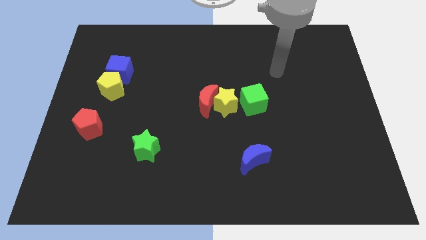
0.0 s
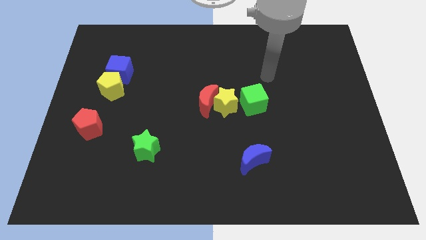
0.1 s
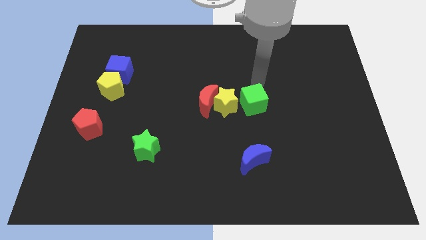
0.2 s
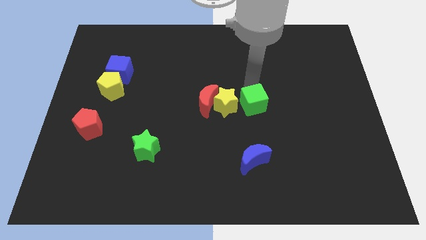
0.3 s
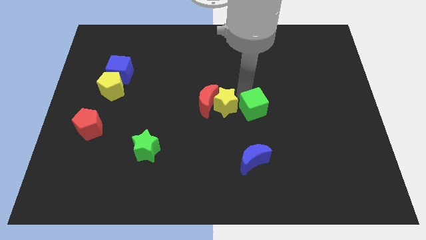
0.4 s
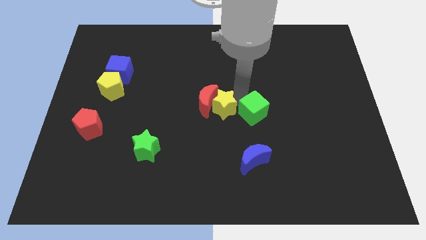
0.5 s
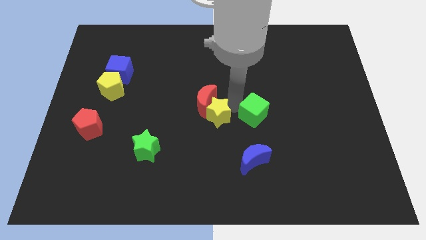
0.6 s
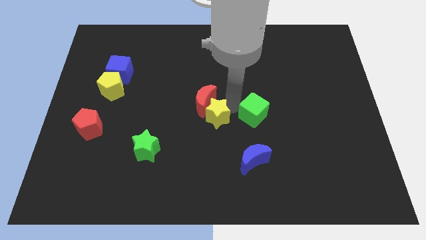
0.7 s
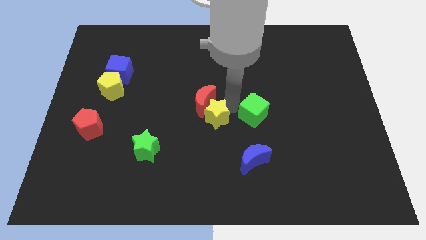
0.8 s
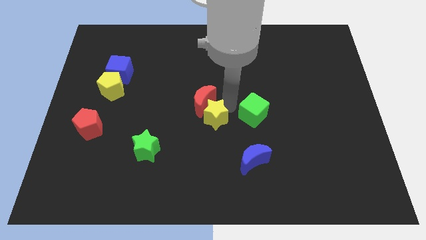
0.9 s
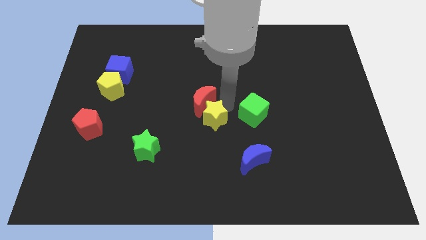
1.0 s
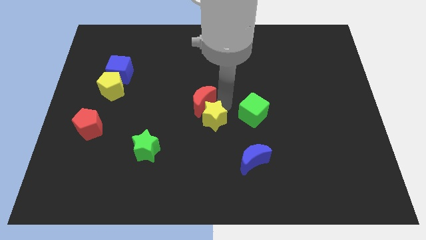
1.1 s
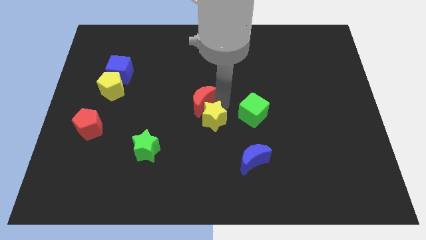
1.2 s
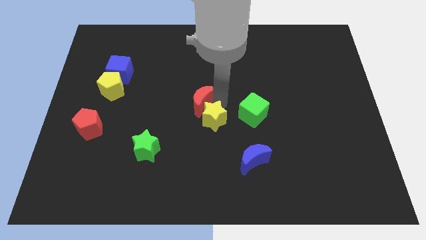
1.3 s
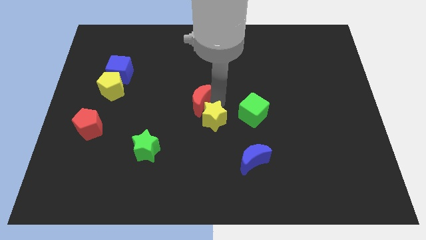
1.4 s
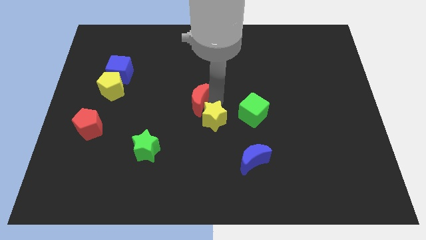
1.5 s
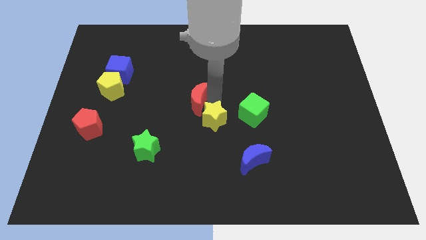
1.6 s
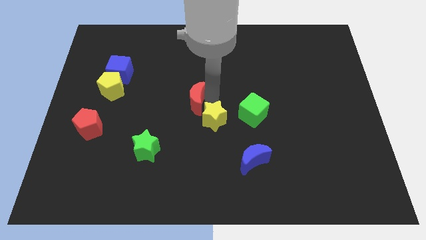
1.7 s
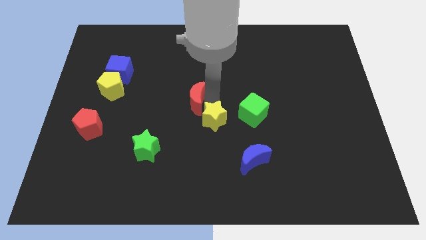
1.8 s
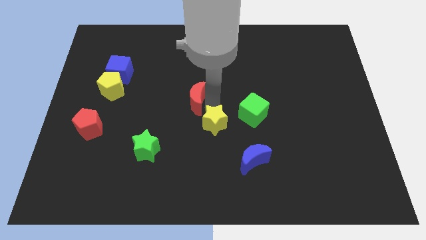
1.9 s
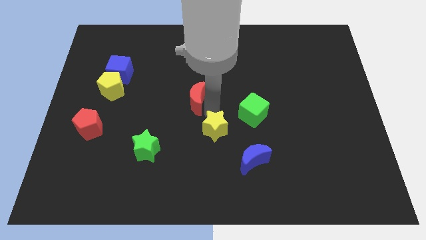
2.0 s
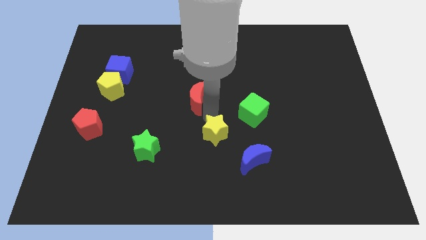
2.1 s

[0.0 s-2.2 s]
move the red moon away from the yellow star

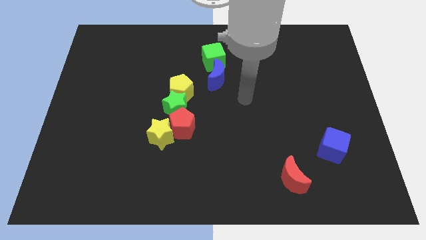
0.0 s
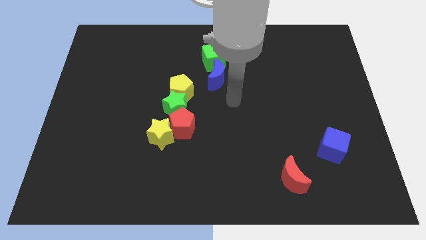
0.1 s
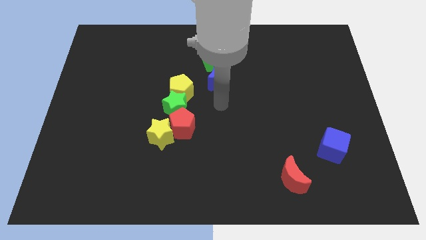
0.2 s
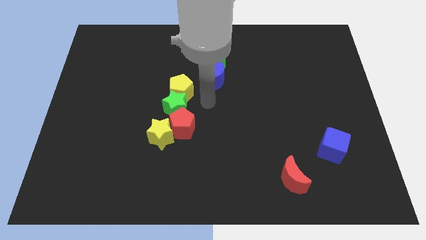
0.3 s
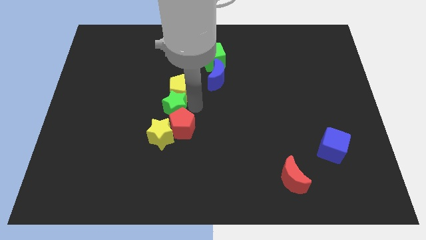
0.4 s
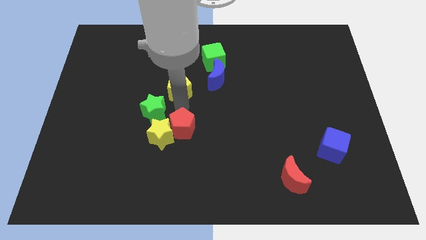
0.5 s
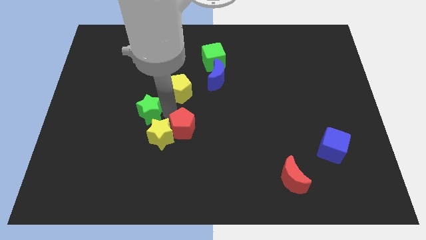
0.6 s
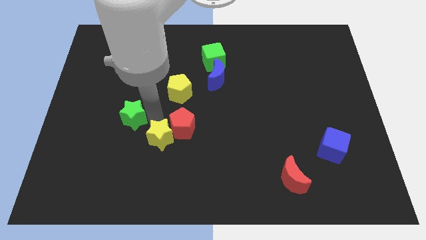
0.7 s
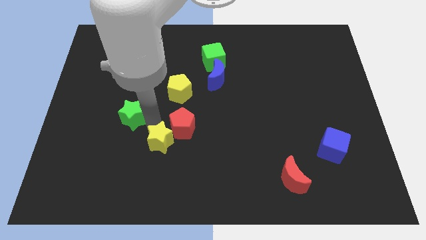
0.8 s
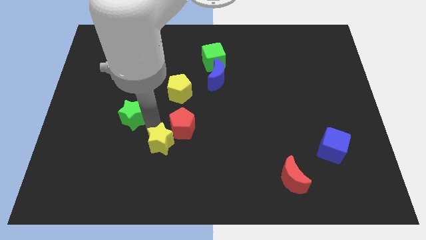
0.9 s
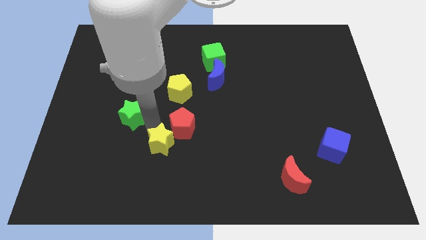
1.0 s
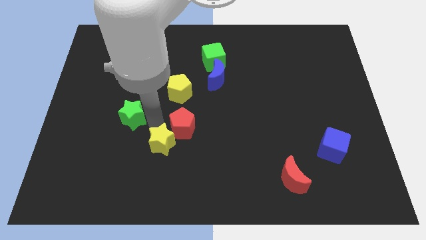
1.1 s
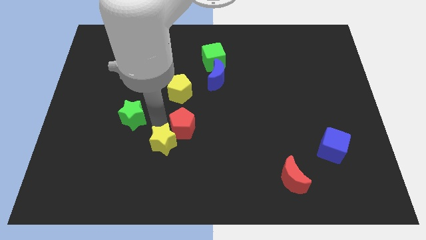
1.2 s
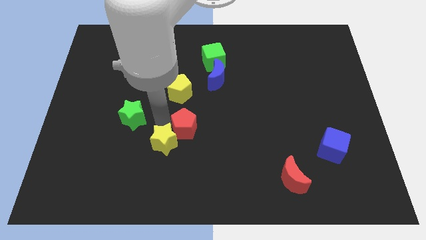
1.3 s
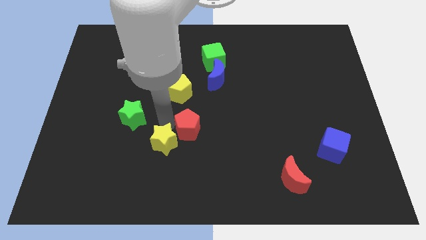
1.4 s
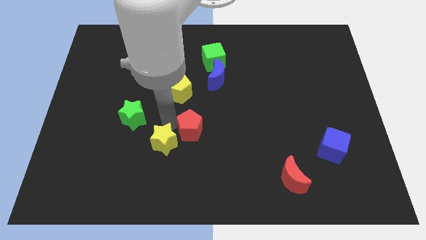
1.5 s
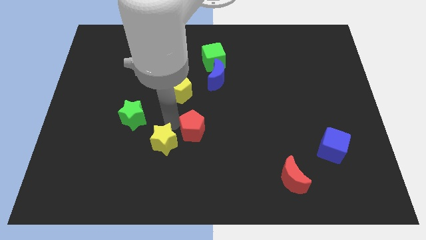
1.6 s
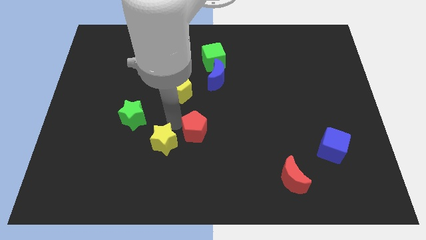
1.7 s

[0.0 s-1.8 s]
pull the red pentagon apart from the yellow star and green star

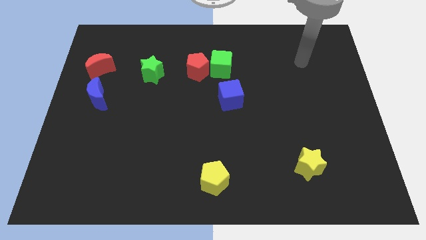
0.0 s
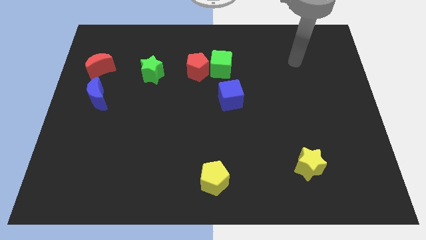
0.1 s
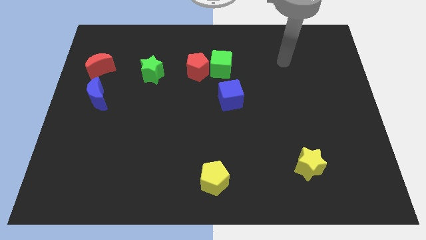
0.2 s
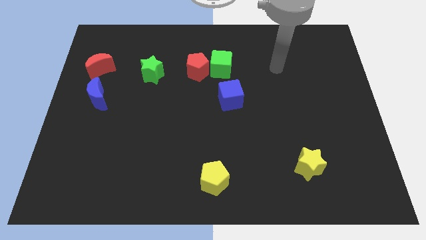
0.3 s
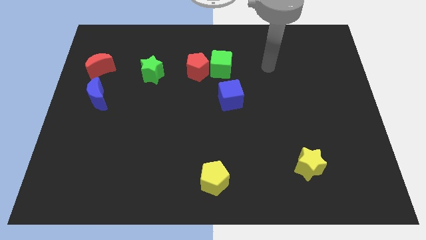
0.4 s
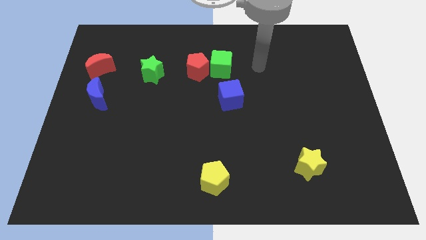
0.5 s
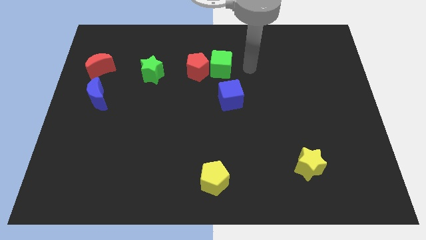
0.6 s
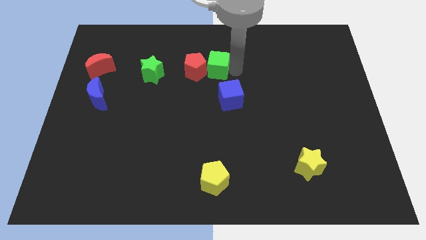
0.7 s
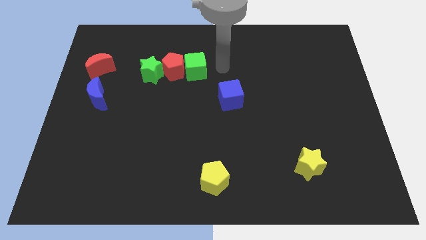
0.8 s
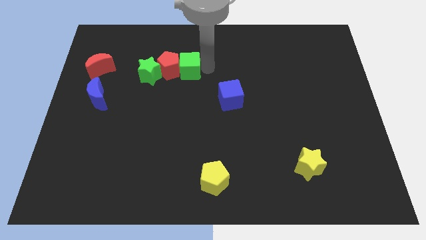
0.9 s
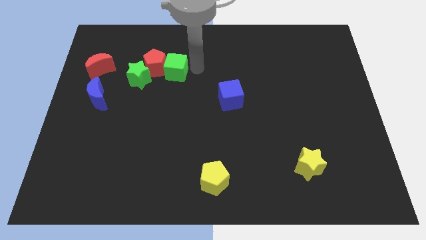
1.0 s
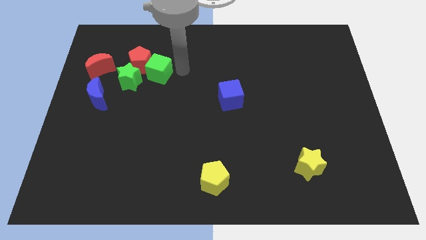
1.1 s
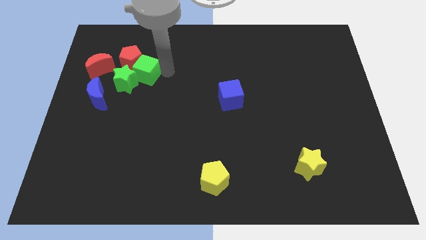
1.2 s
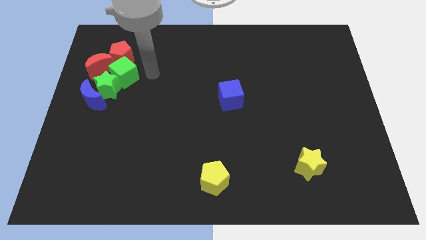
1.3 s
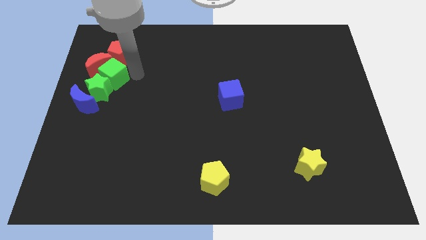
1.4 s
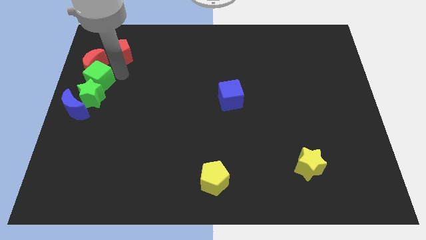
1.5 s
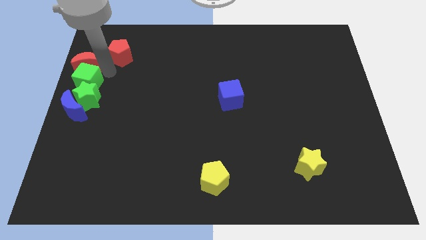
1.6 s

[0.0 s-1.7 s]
separate the red pentagon from the green cube

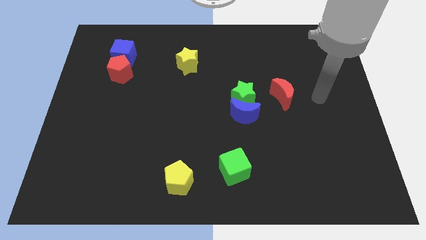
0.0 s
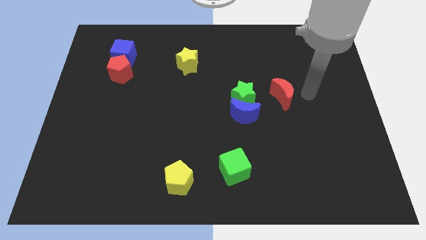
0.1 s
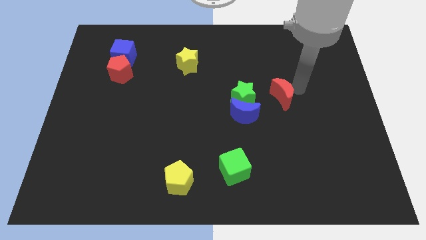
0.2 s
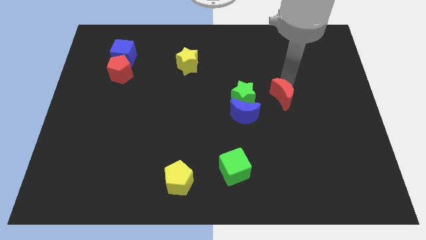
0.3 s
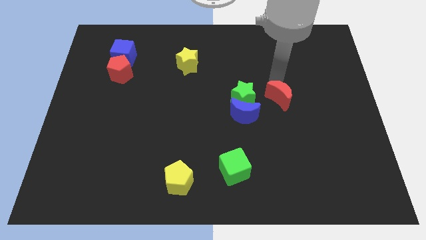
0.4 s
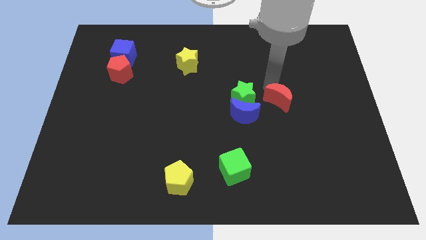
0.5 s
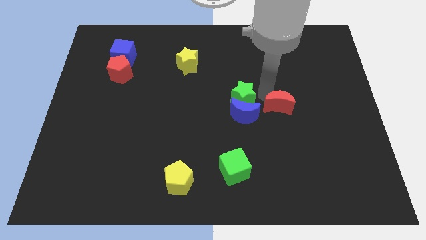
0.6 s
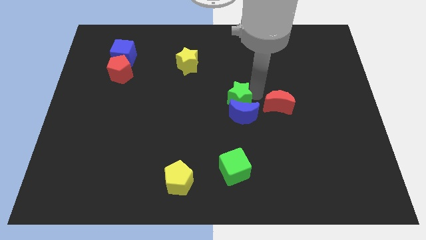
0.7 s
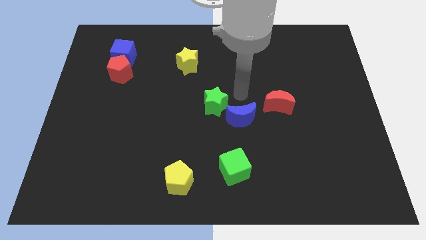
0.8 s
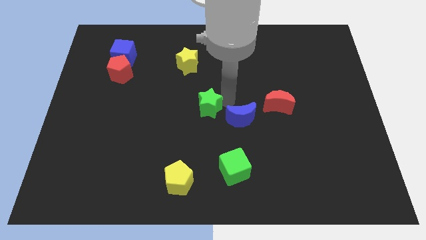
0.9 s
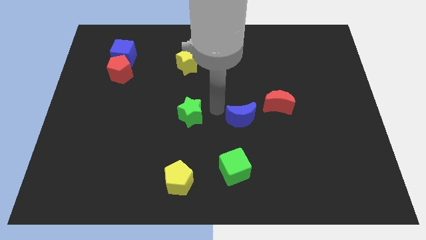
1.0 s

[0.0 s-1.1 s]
move the blue moon away from the green star

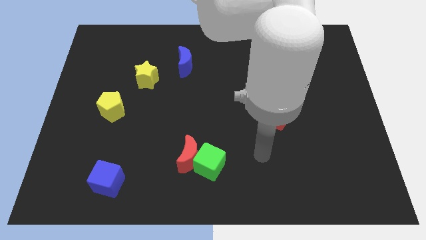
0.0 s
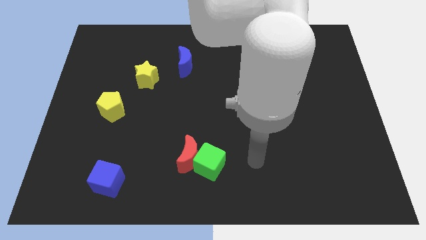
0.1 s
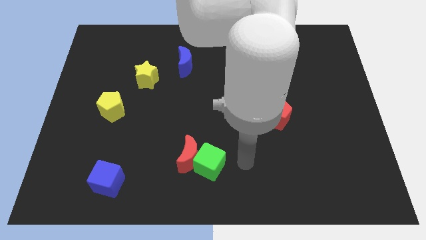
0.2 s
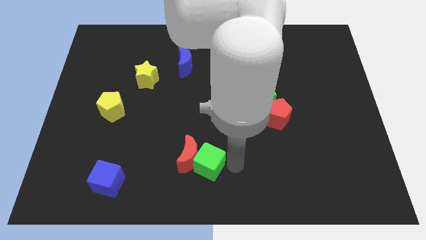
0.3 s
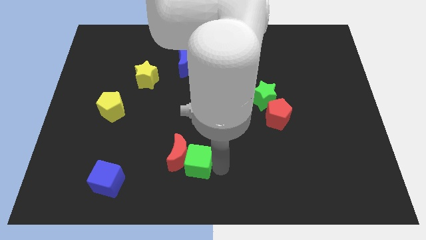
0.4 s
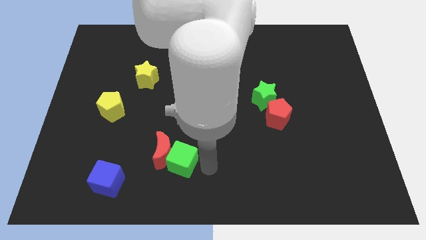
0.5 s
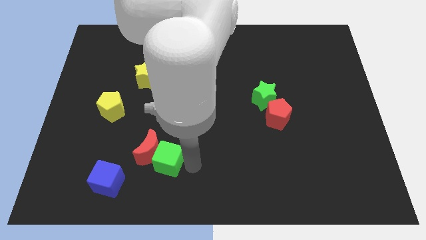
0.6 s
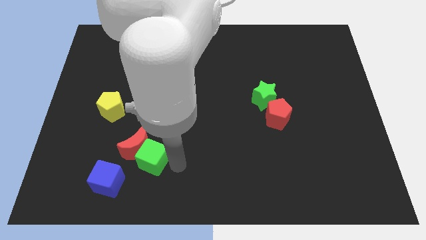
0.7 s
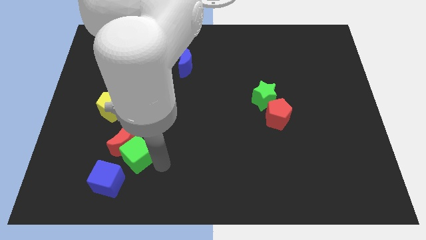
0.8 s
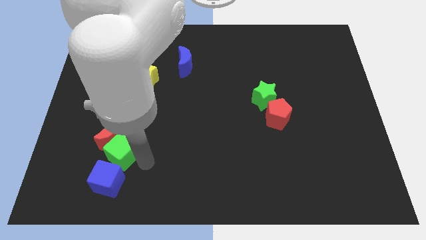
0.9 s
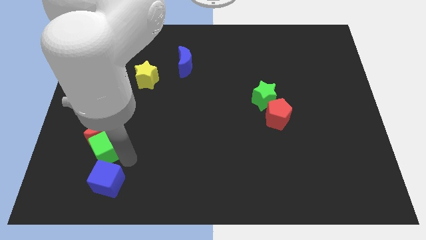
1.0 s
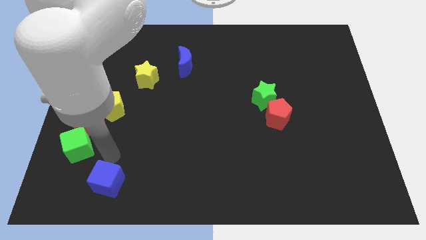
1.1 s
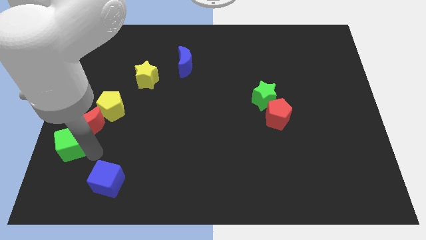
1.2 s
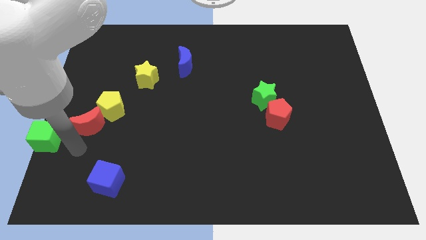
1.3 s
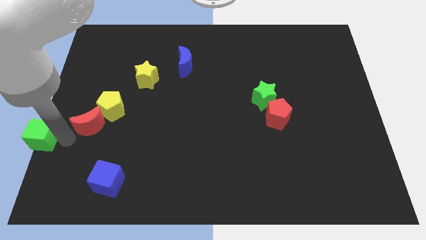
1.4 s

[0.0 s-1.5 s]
move the red moon away from the green cube

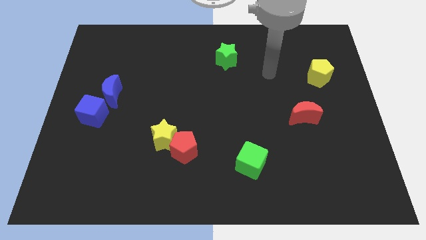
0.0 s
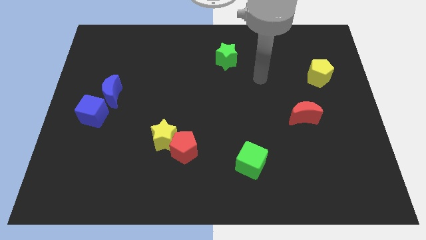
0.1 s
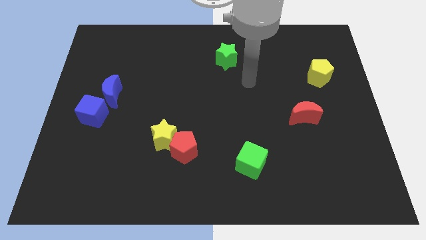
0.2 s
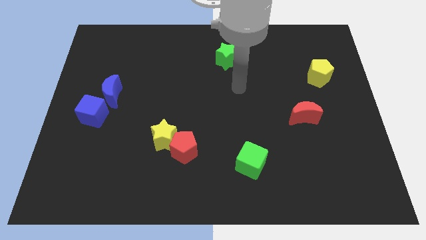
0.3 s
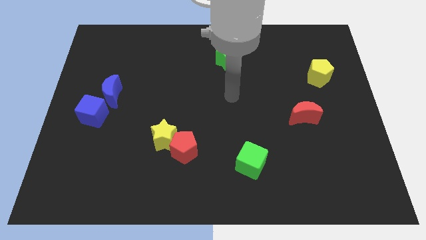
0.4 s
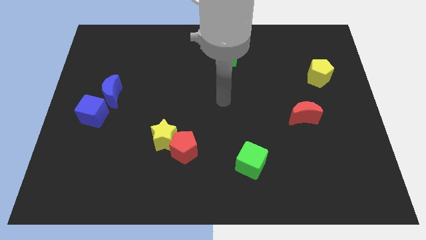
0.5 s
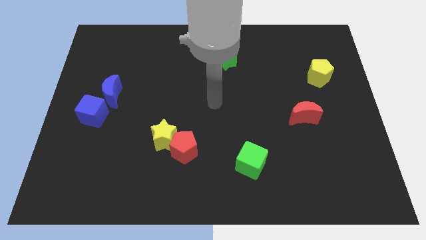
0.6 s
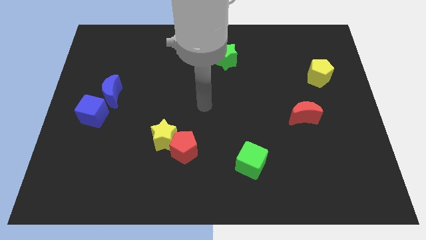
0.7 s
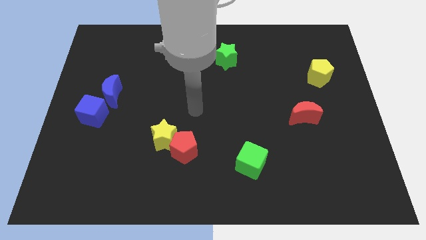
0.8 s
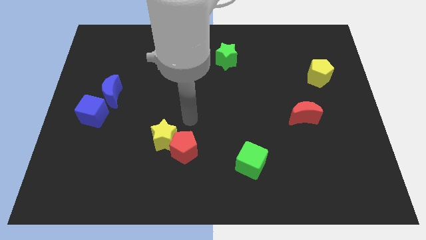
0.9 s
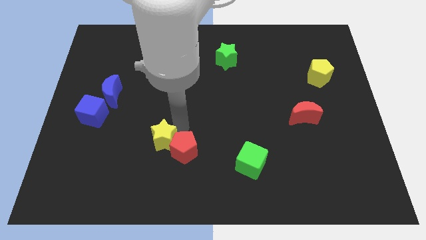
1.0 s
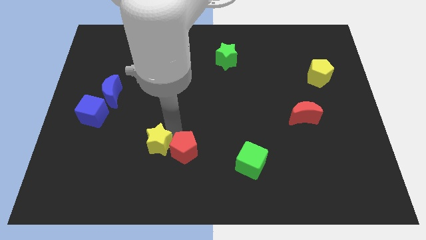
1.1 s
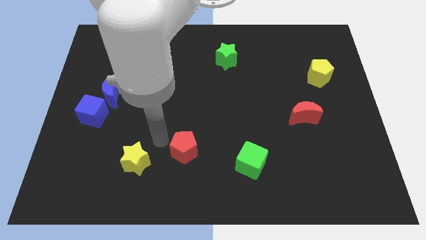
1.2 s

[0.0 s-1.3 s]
pull the red pentagon apart from the yellow star
